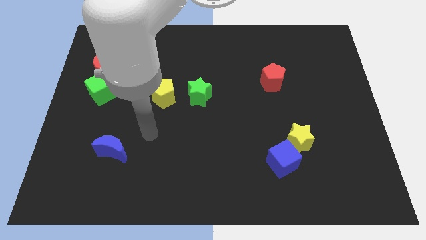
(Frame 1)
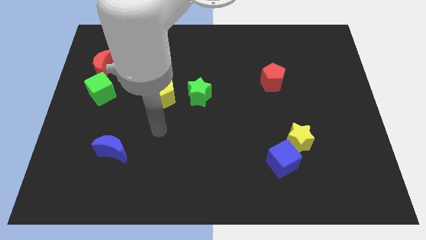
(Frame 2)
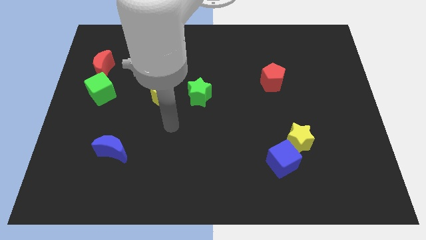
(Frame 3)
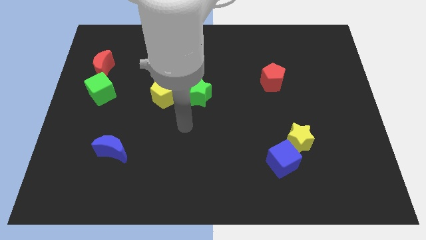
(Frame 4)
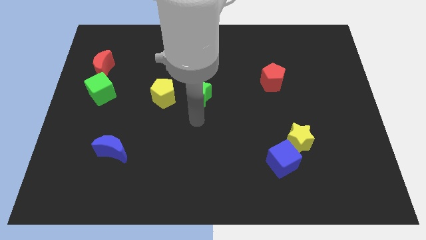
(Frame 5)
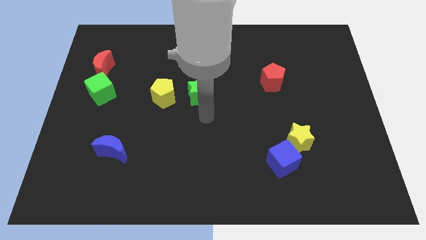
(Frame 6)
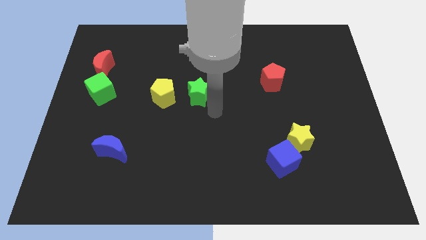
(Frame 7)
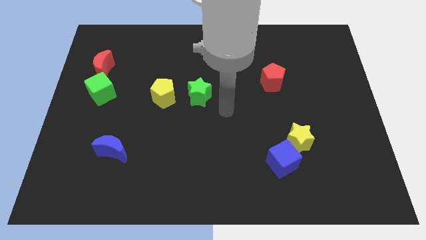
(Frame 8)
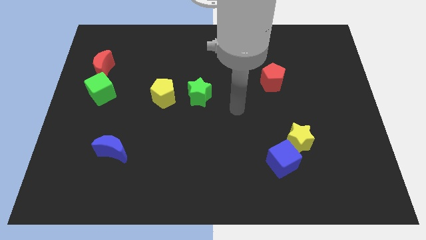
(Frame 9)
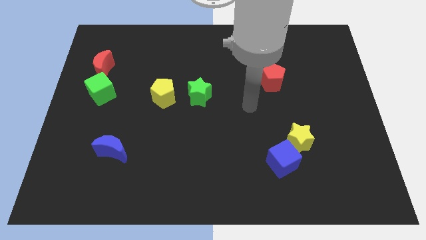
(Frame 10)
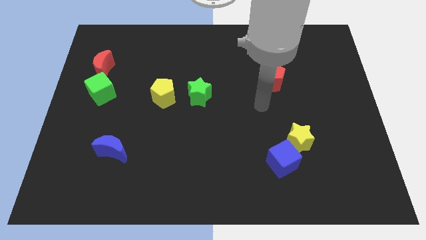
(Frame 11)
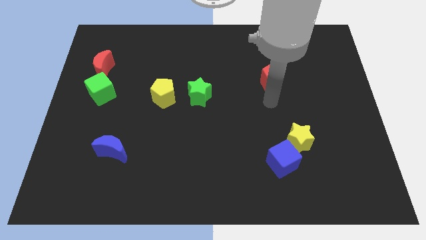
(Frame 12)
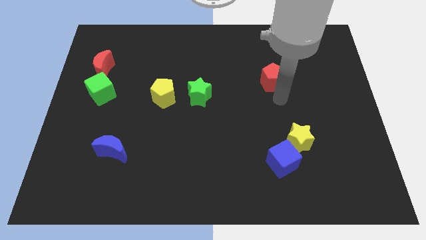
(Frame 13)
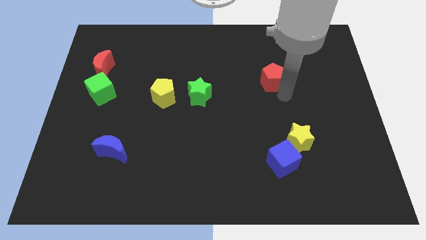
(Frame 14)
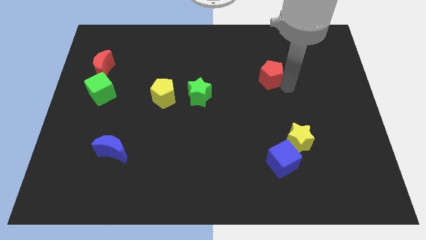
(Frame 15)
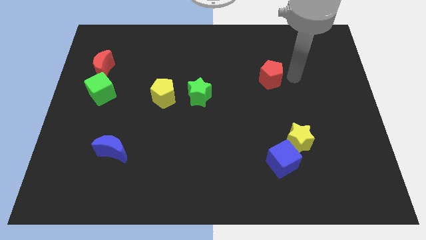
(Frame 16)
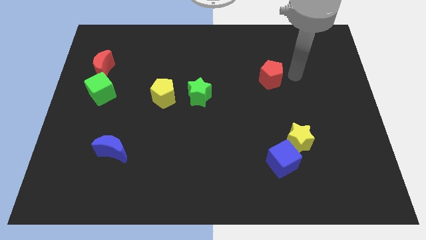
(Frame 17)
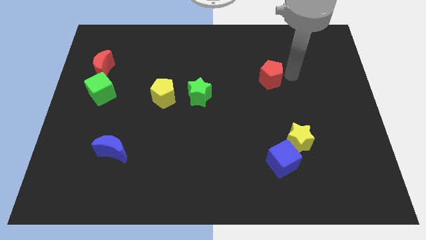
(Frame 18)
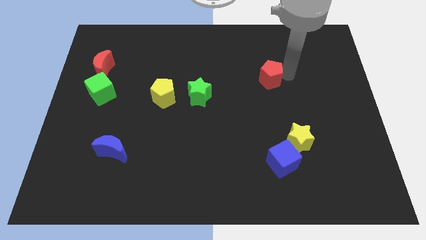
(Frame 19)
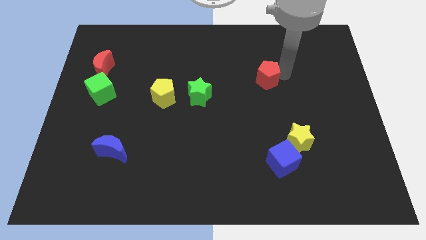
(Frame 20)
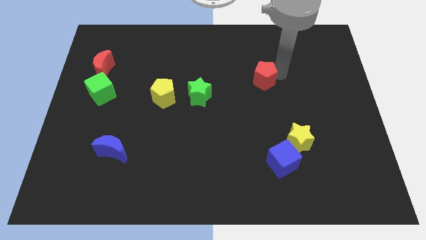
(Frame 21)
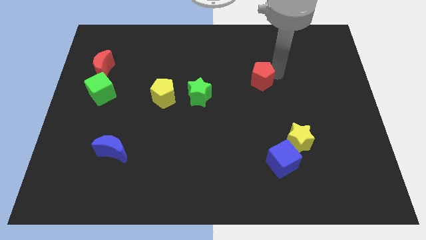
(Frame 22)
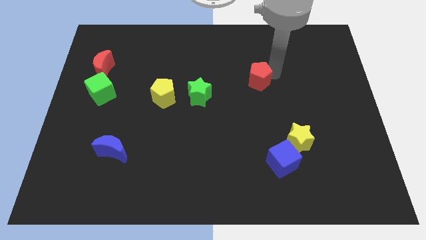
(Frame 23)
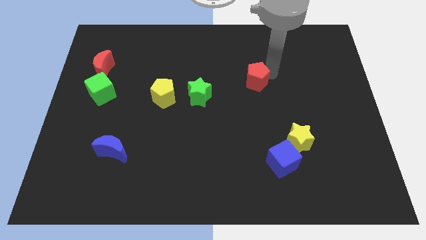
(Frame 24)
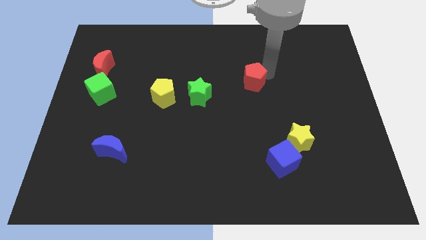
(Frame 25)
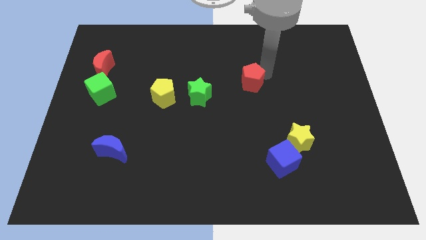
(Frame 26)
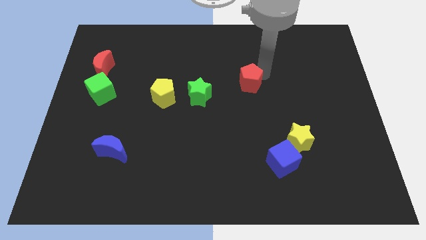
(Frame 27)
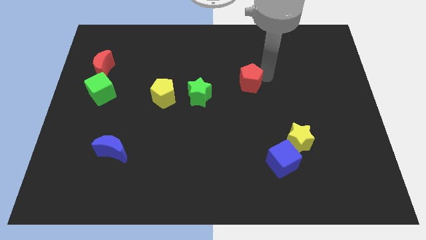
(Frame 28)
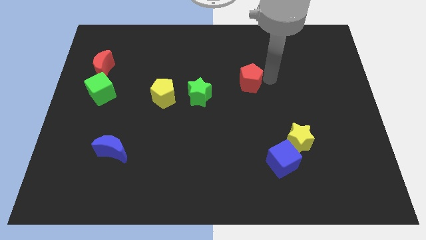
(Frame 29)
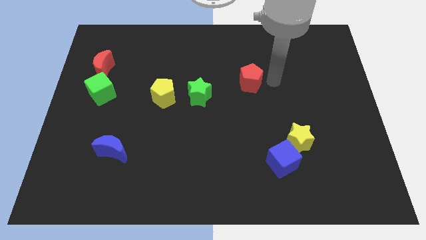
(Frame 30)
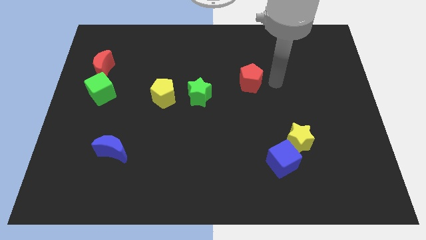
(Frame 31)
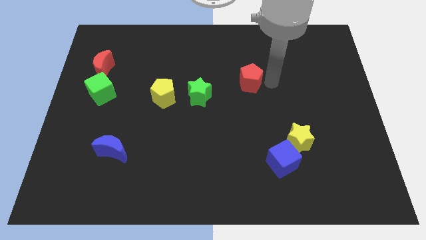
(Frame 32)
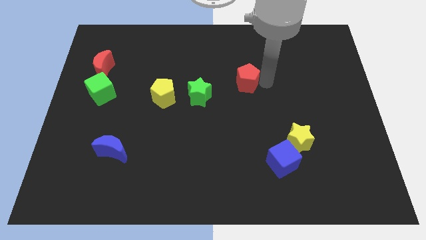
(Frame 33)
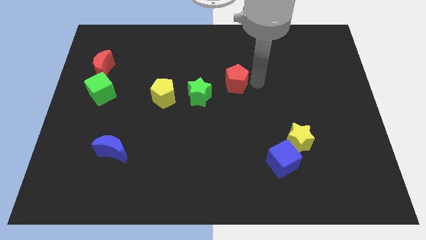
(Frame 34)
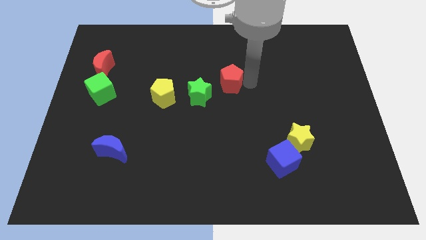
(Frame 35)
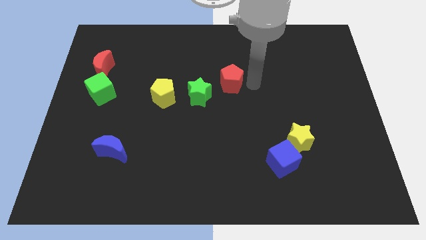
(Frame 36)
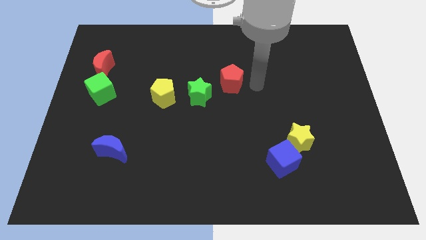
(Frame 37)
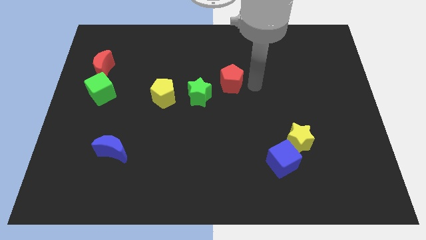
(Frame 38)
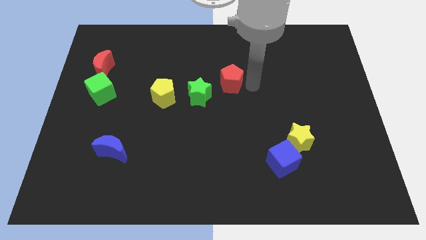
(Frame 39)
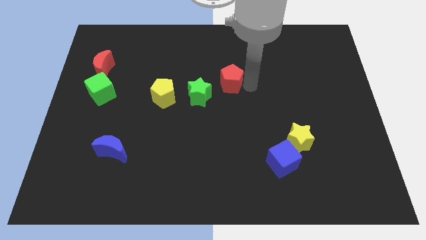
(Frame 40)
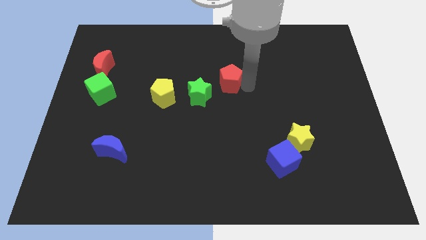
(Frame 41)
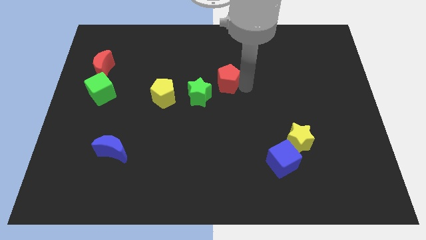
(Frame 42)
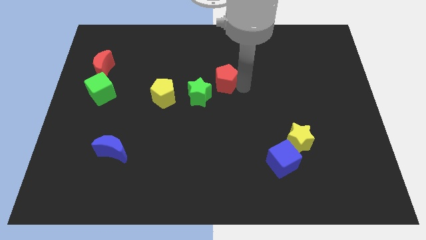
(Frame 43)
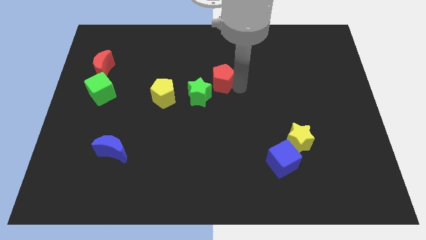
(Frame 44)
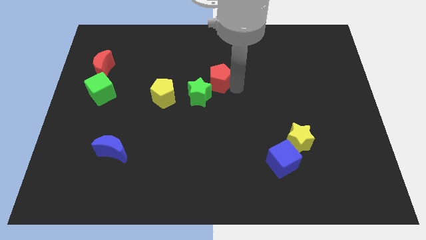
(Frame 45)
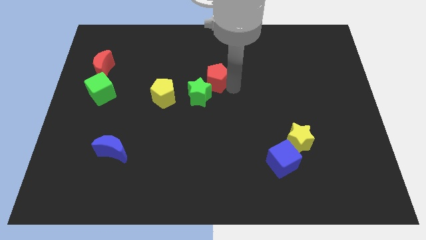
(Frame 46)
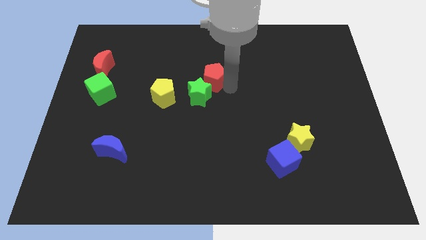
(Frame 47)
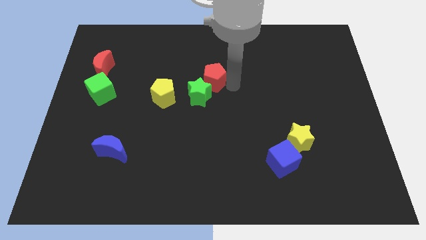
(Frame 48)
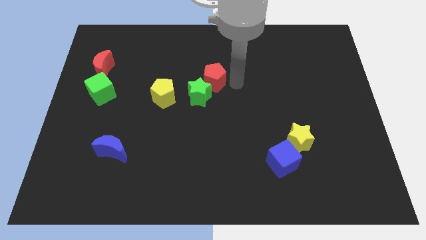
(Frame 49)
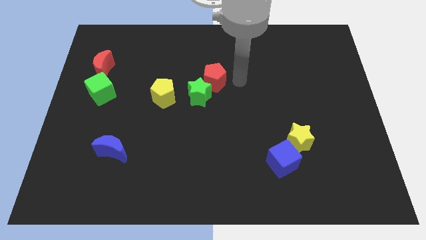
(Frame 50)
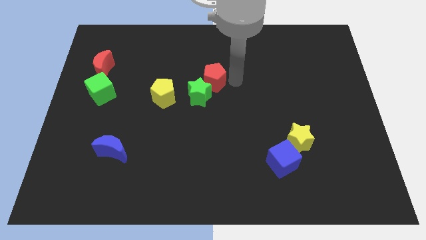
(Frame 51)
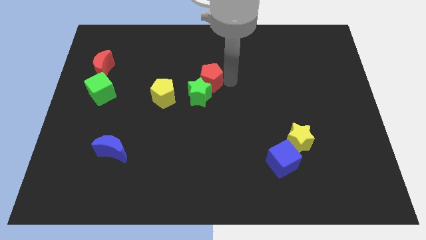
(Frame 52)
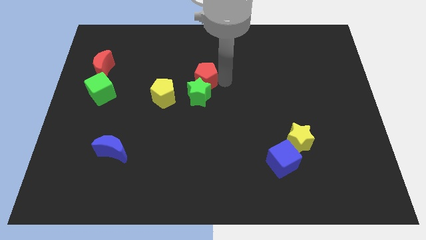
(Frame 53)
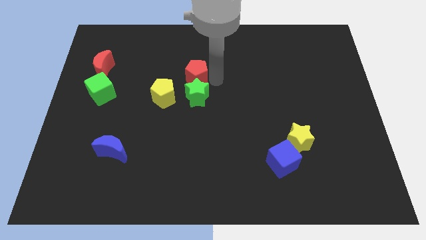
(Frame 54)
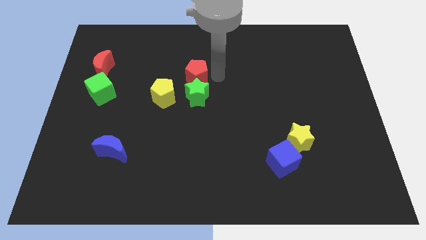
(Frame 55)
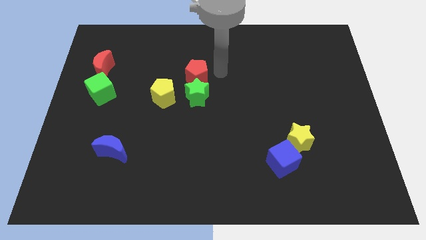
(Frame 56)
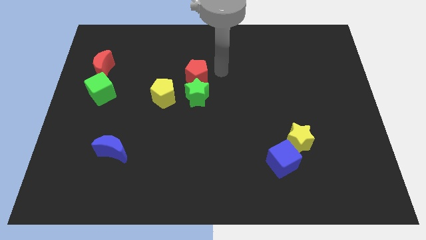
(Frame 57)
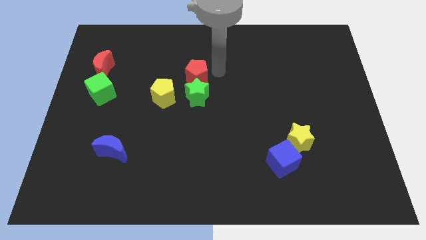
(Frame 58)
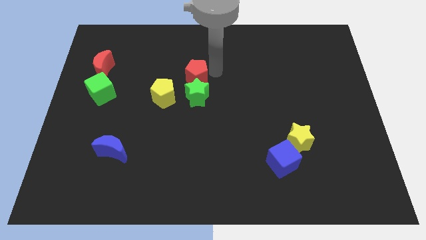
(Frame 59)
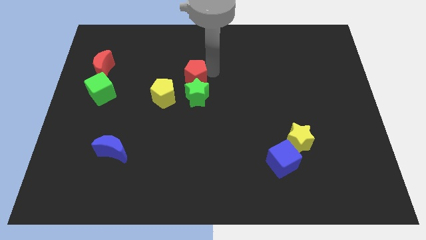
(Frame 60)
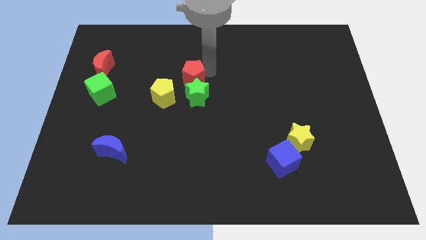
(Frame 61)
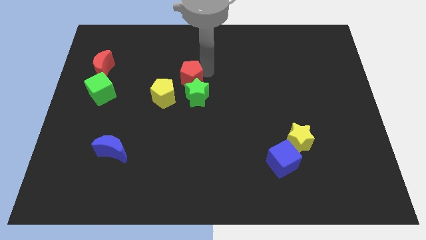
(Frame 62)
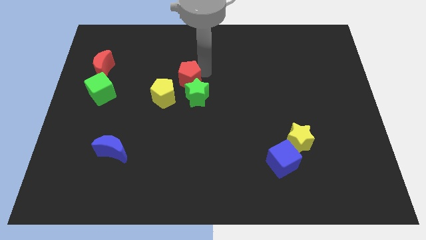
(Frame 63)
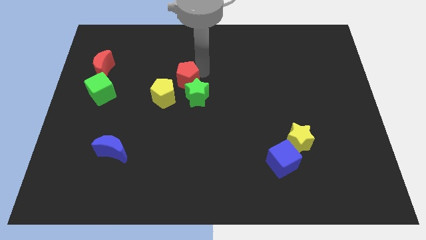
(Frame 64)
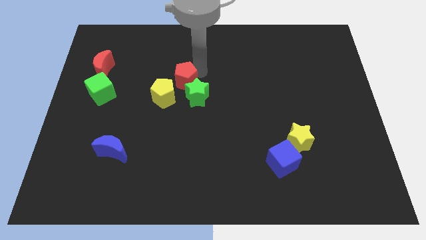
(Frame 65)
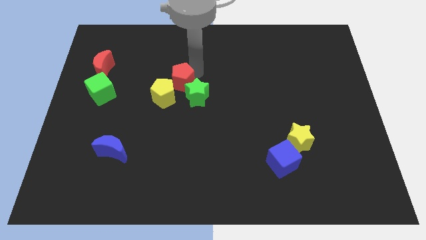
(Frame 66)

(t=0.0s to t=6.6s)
put the red pentagon just left of the green star

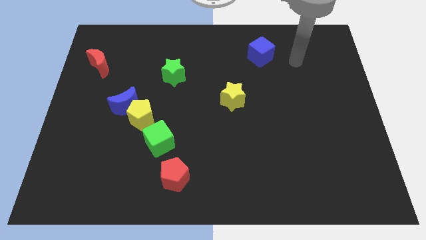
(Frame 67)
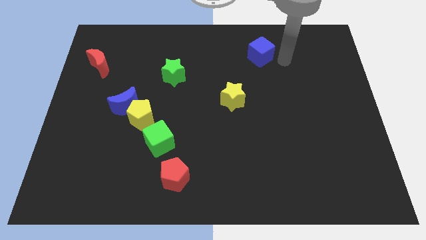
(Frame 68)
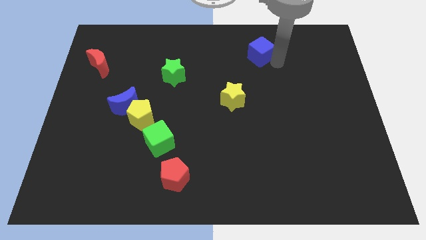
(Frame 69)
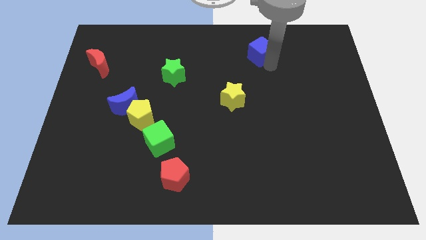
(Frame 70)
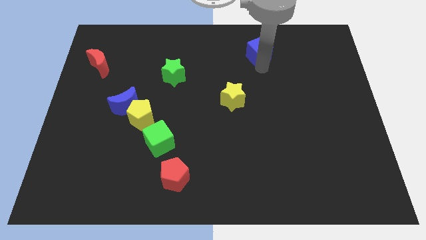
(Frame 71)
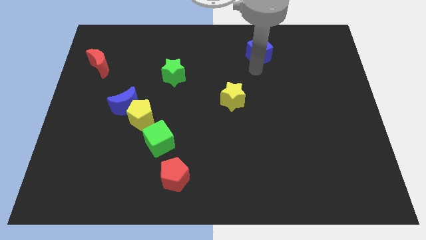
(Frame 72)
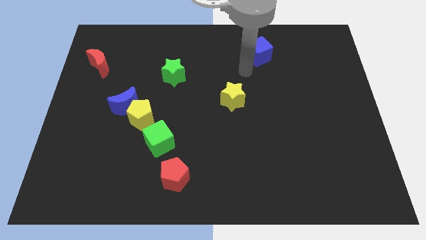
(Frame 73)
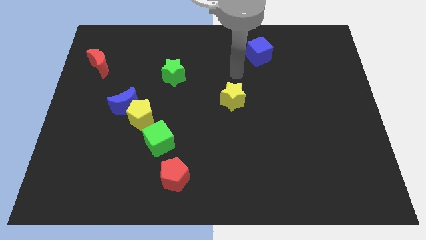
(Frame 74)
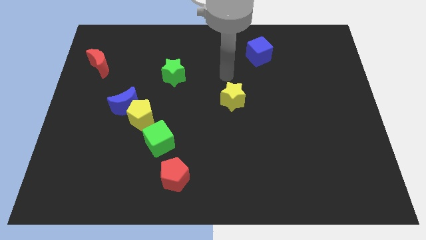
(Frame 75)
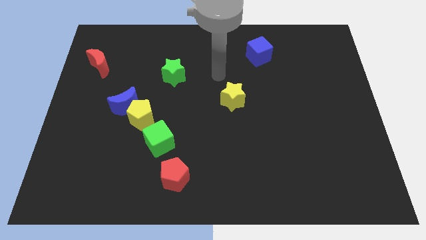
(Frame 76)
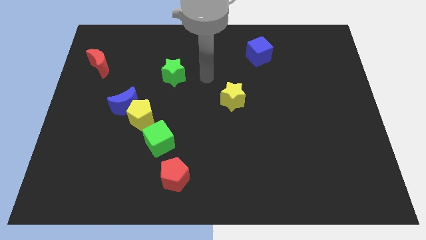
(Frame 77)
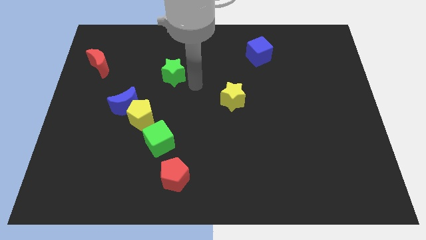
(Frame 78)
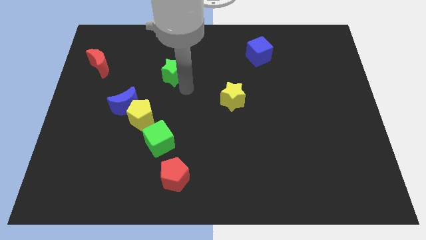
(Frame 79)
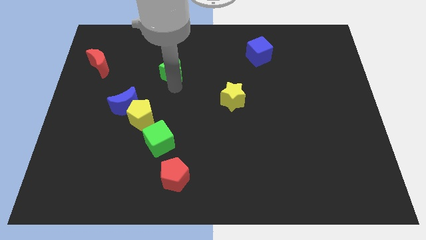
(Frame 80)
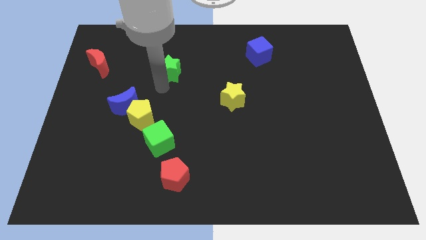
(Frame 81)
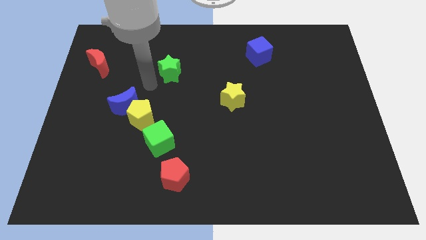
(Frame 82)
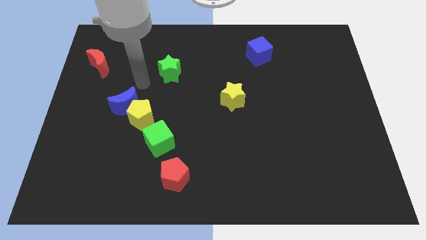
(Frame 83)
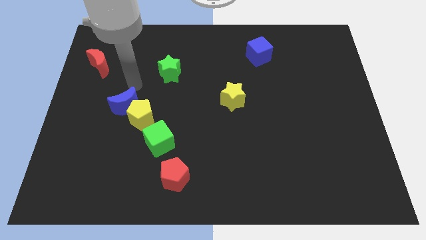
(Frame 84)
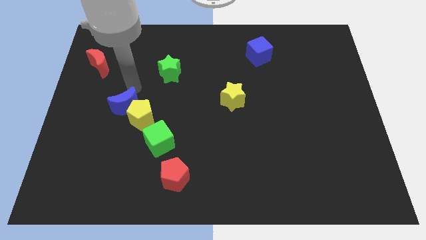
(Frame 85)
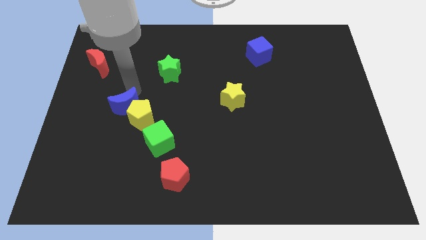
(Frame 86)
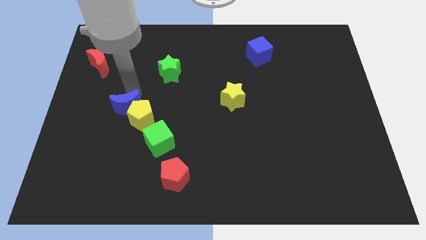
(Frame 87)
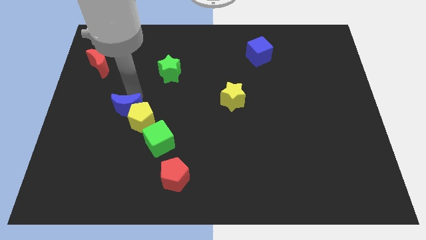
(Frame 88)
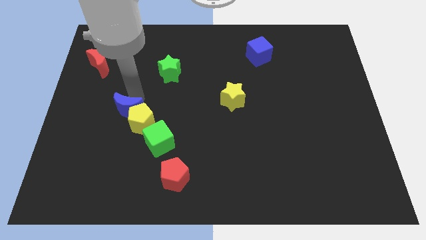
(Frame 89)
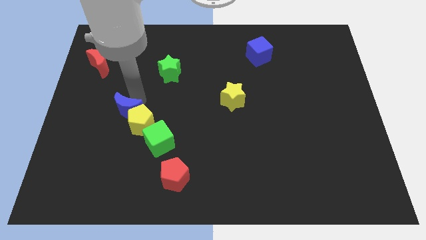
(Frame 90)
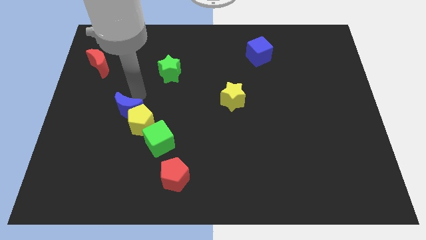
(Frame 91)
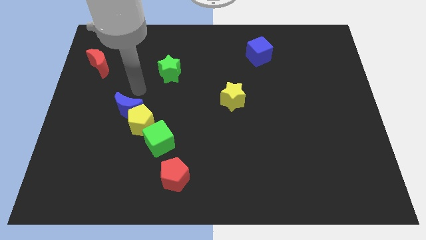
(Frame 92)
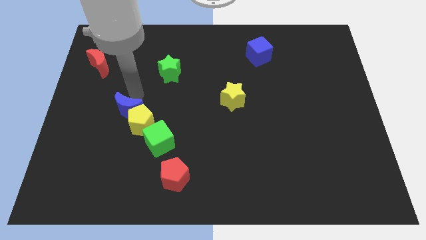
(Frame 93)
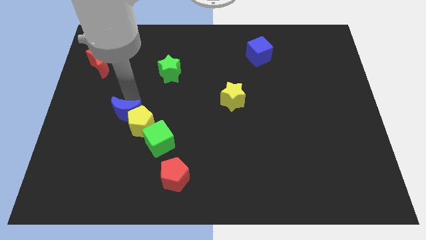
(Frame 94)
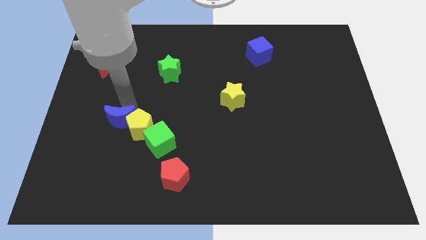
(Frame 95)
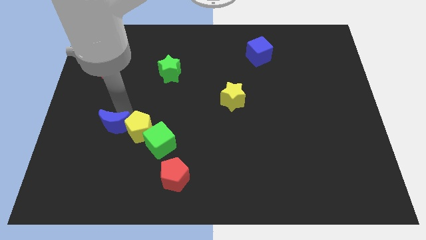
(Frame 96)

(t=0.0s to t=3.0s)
slide the blue moon to the bottom left of the yellow pentagon
